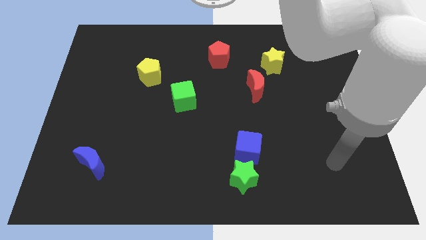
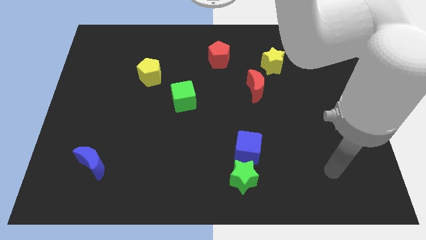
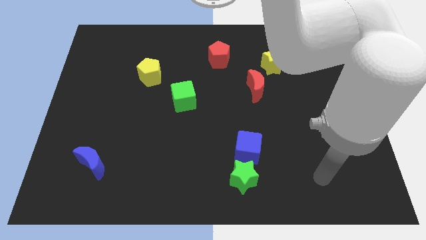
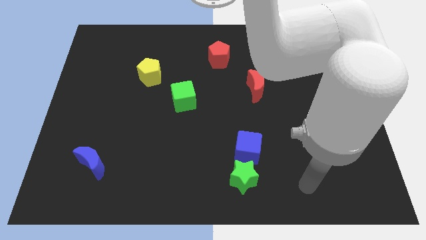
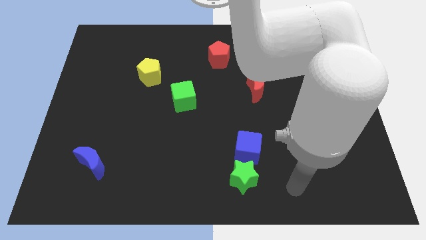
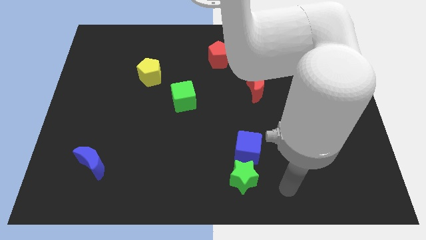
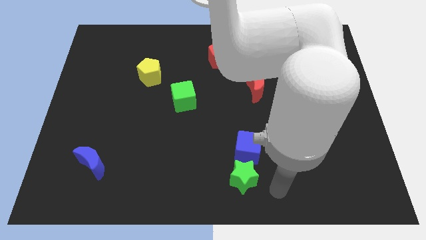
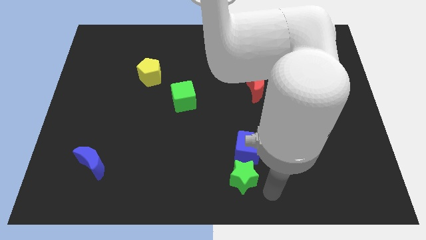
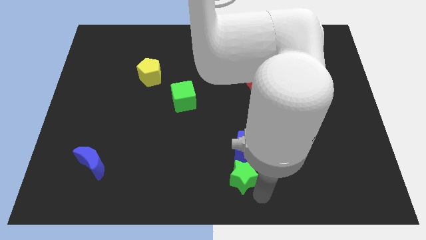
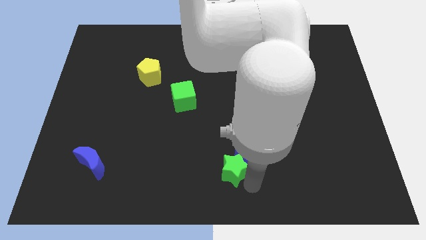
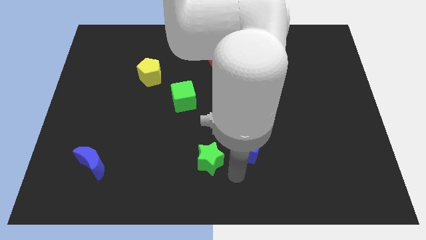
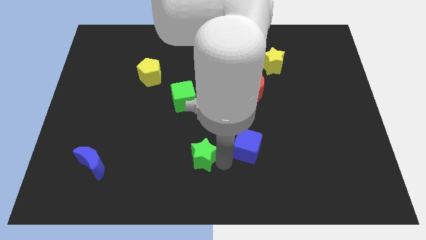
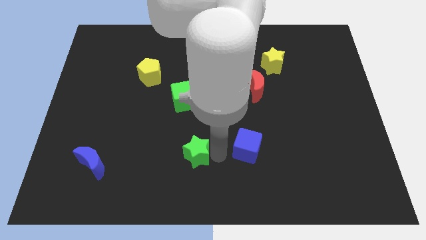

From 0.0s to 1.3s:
move the blue cube away from the green star

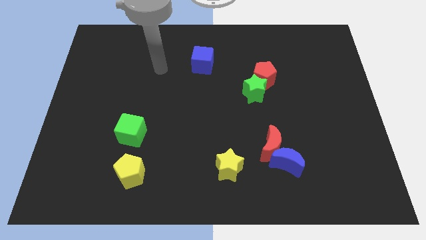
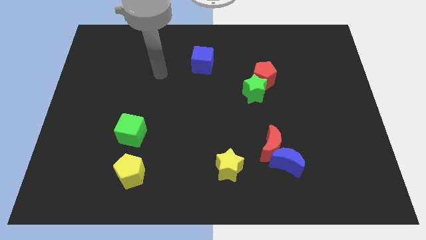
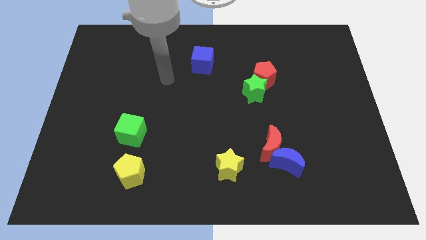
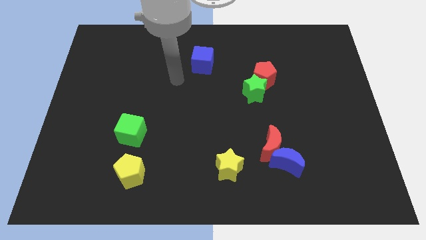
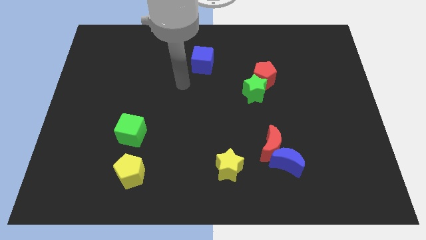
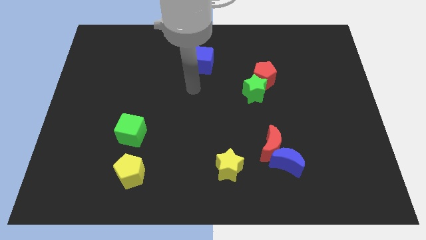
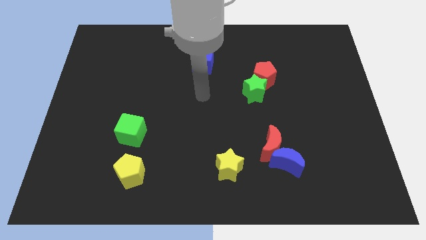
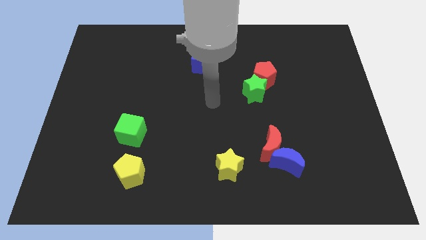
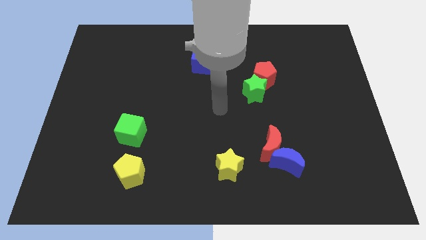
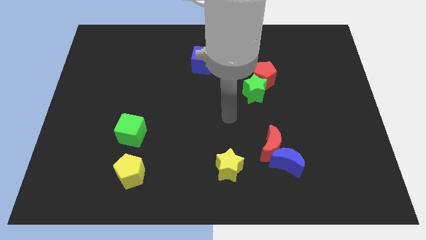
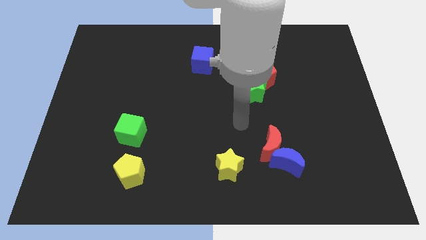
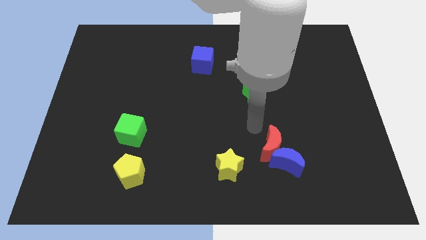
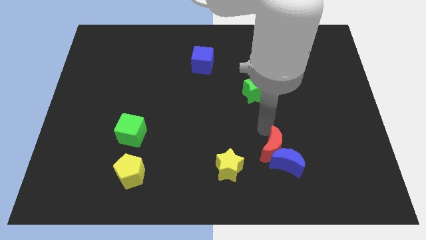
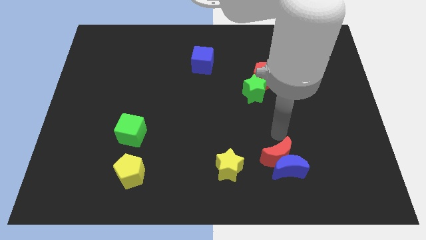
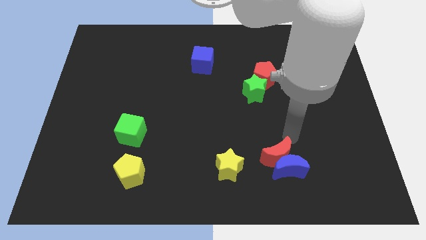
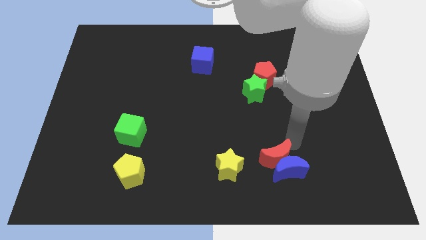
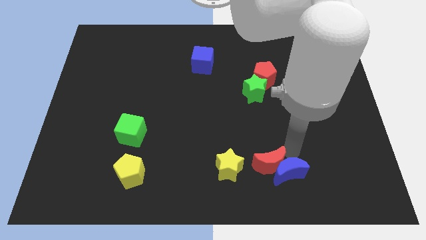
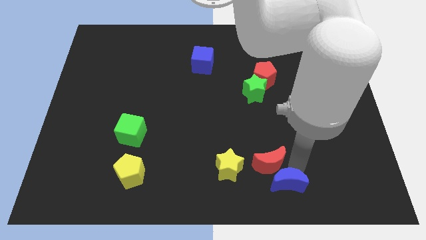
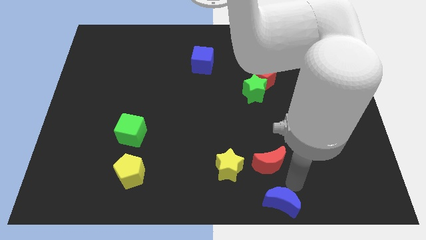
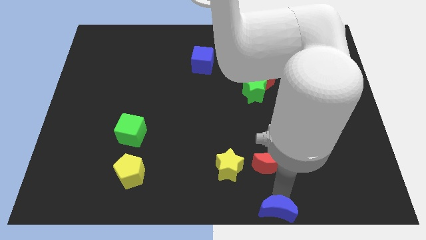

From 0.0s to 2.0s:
separate the red moon from the blue moon

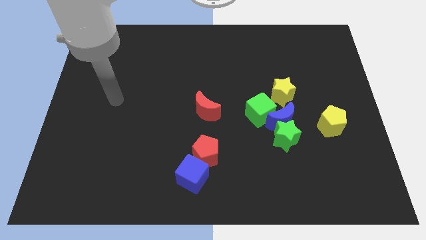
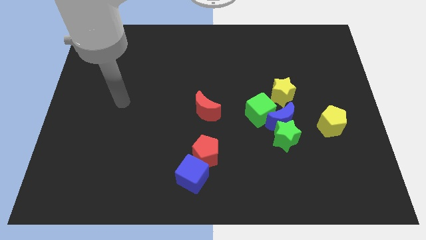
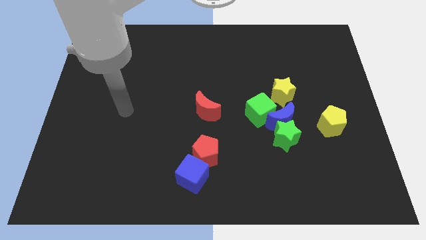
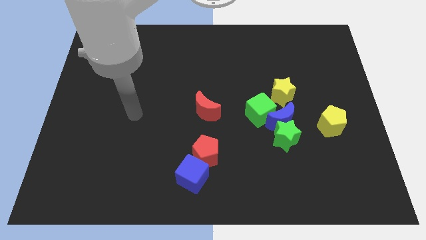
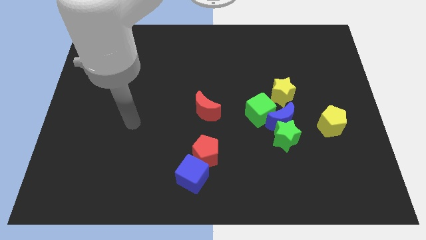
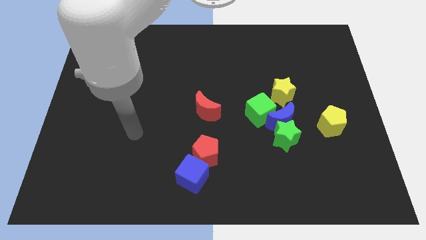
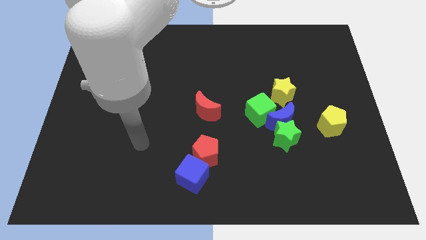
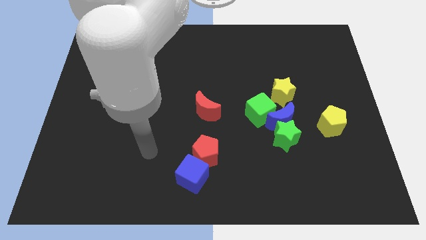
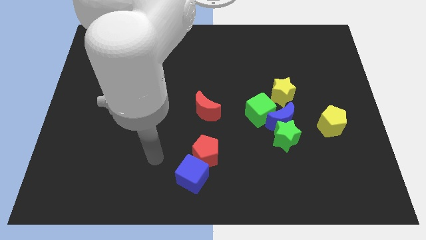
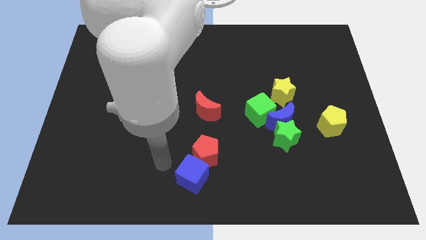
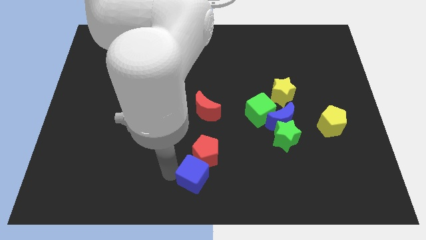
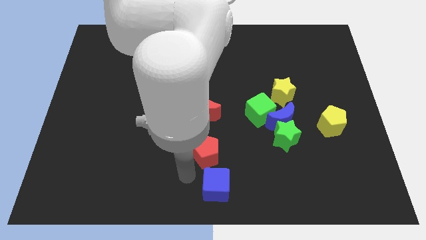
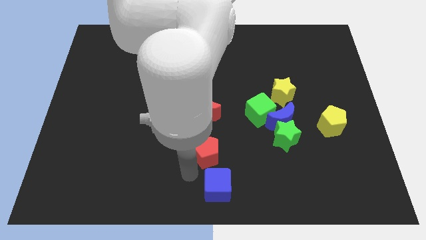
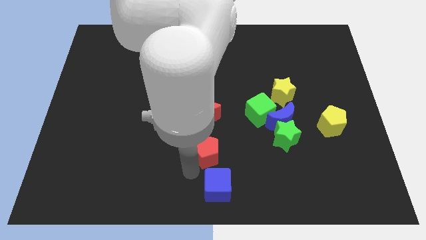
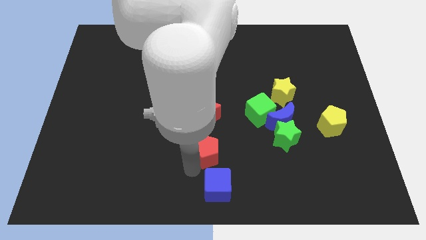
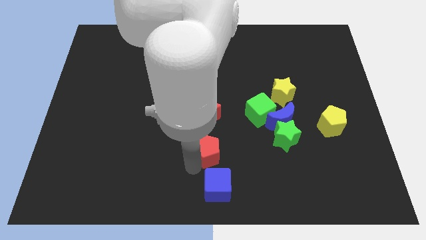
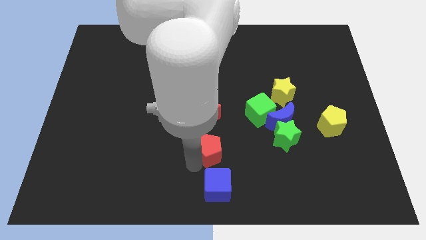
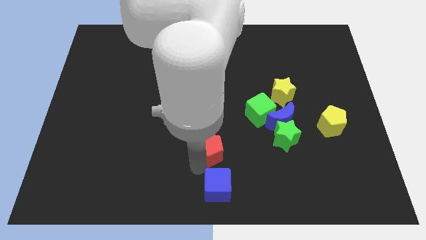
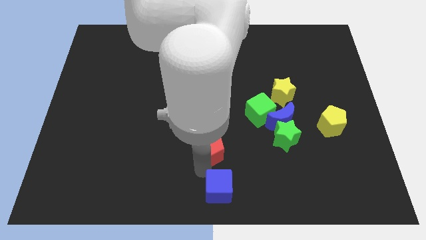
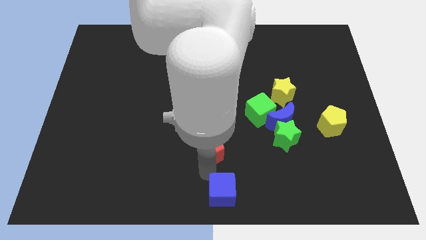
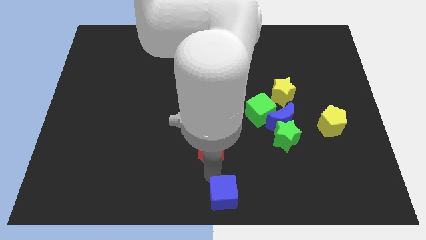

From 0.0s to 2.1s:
separate the red pentagon from the blue cube

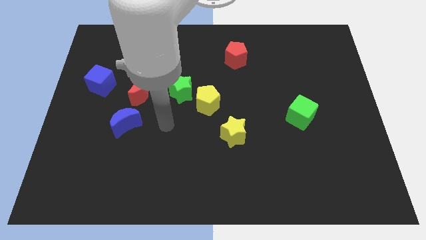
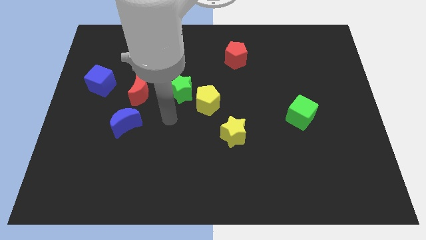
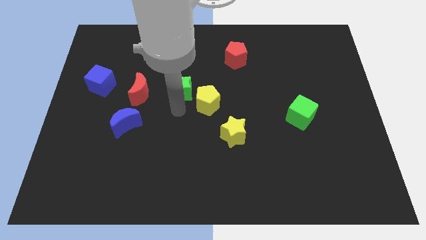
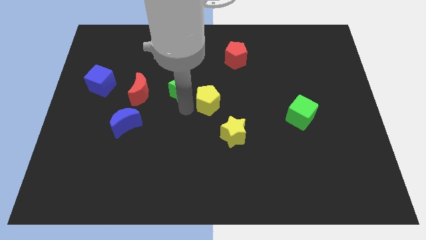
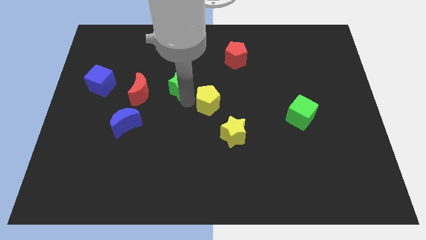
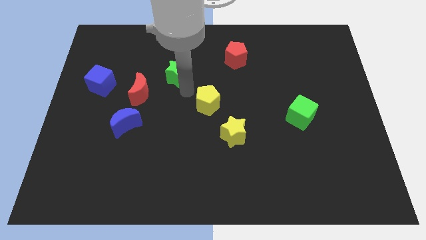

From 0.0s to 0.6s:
separate the yellow pentagon from the green star

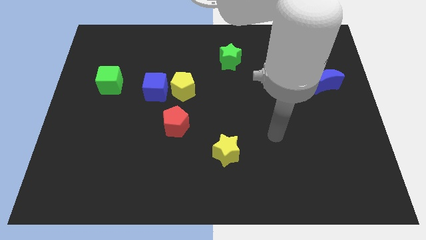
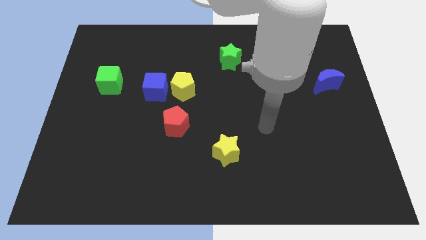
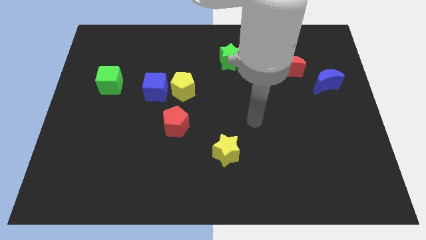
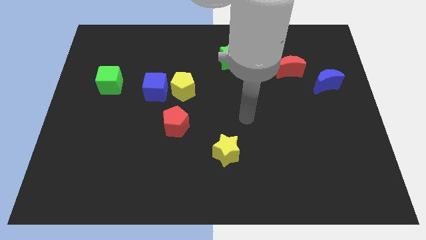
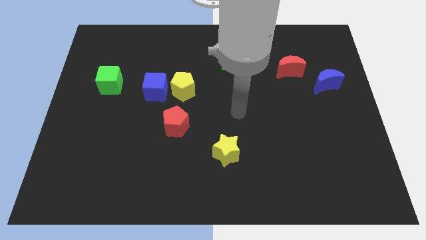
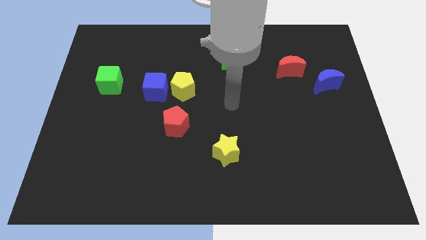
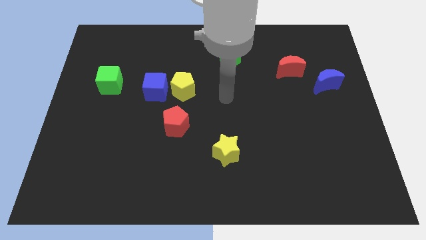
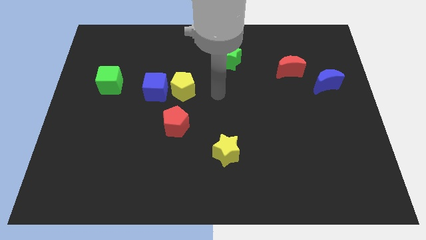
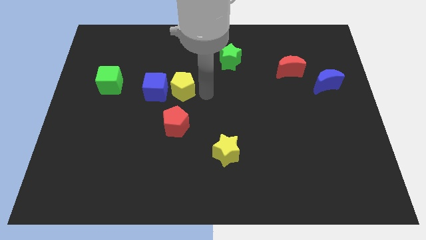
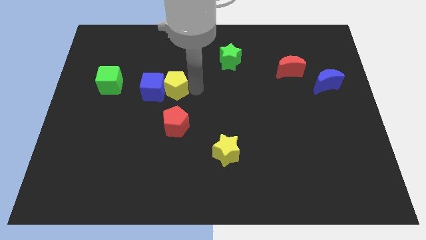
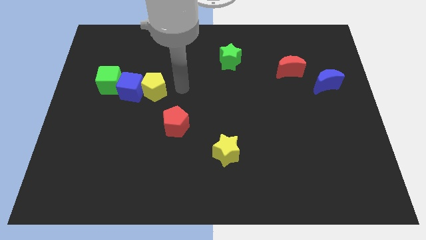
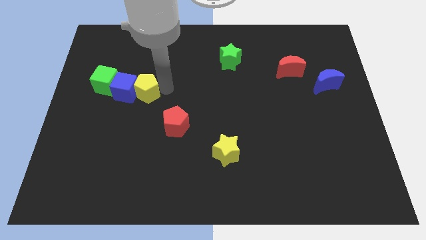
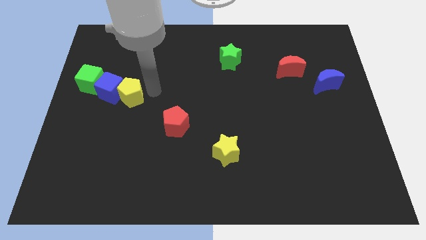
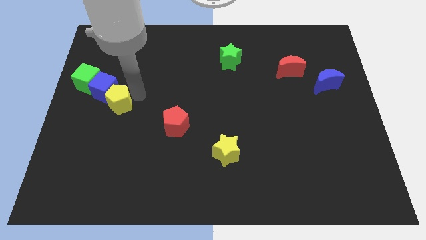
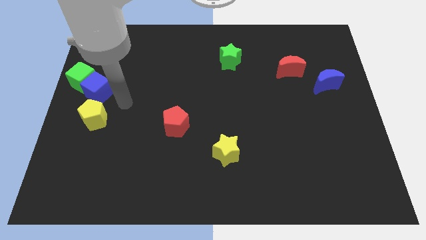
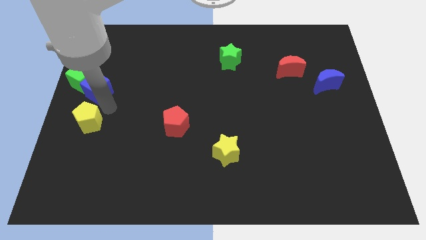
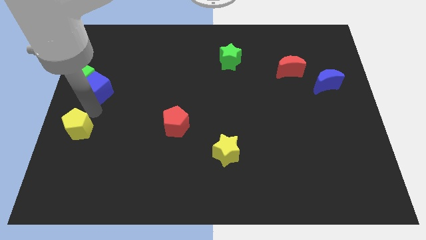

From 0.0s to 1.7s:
separate the blue cube from the yellow pentagon

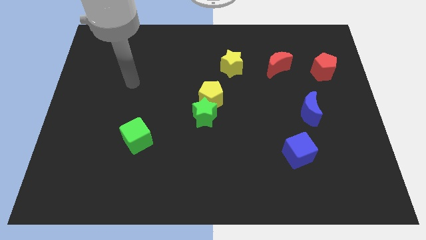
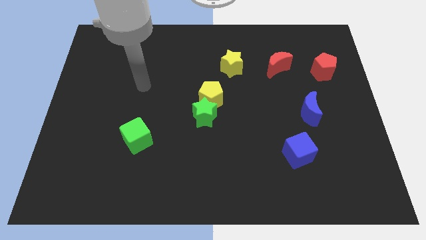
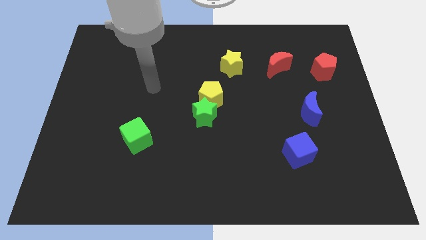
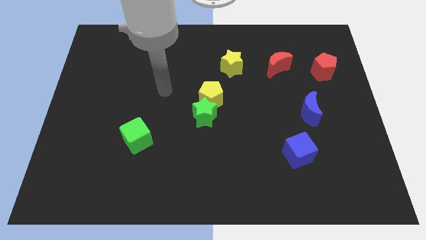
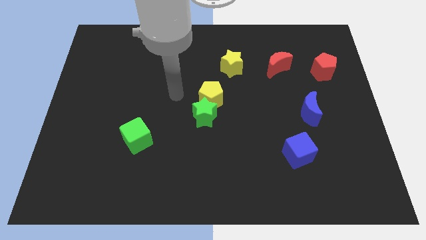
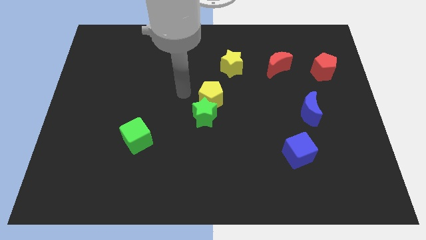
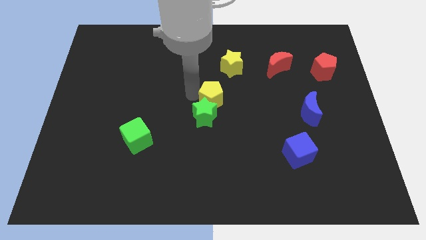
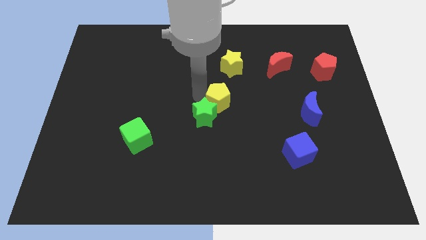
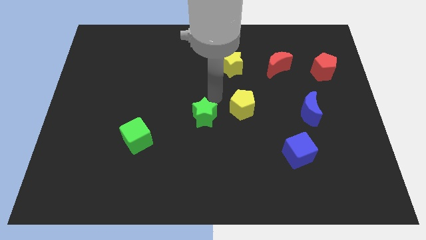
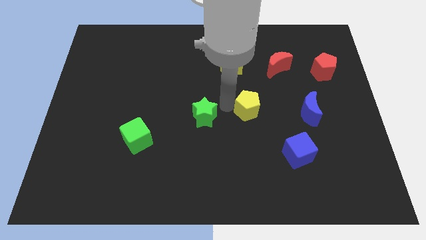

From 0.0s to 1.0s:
move the green star away from the yellow pentagon

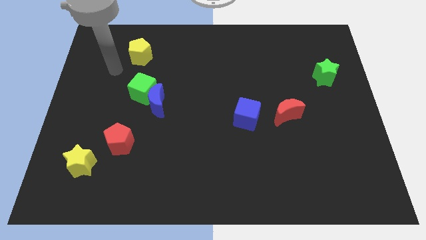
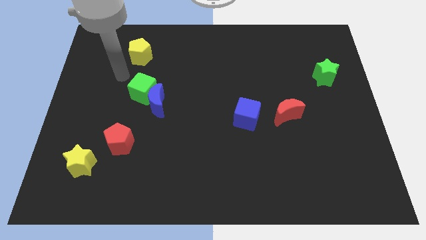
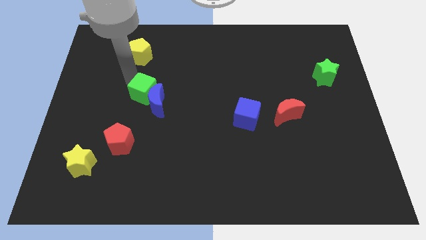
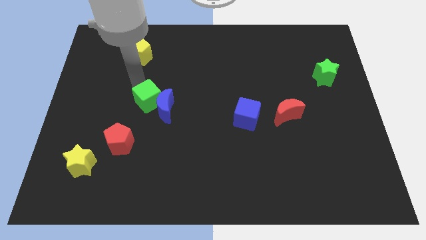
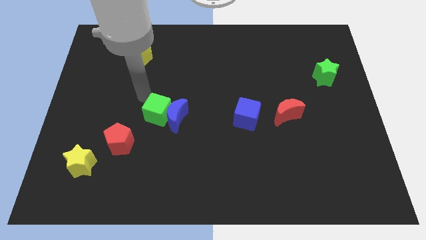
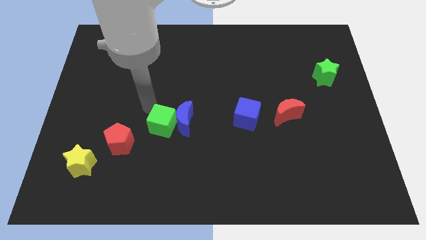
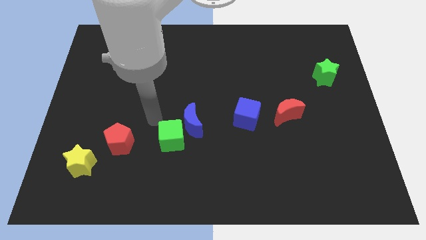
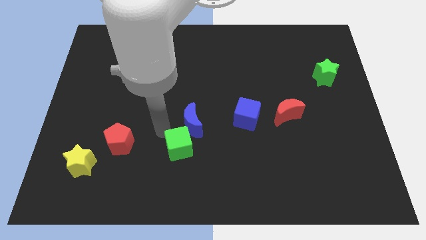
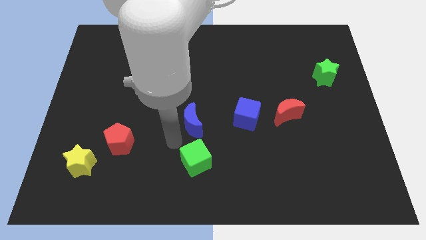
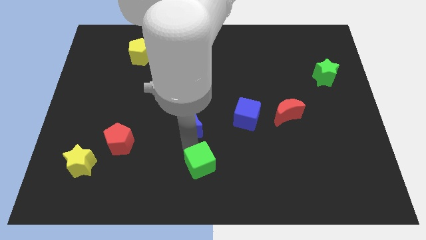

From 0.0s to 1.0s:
separate the blue moon from the green cube
